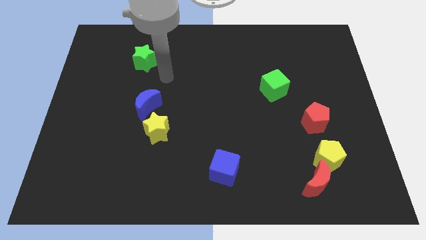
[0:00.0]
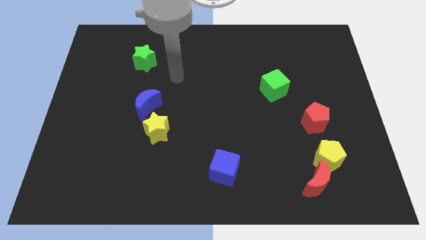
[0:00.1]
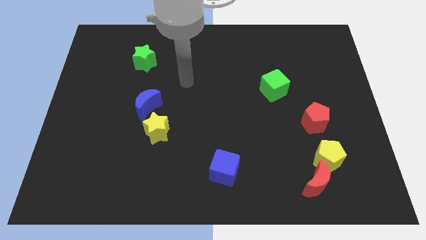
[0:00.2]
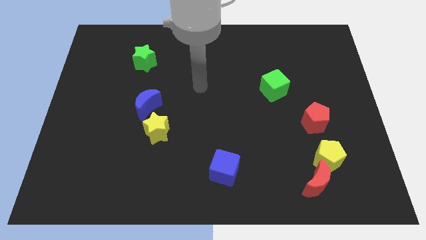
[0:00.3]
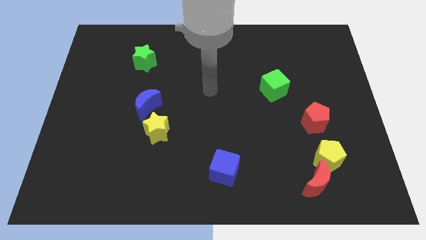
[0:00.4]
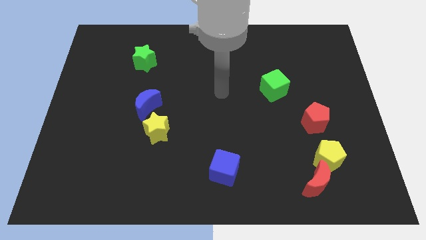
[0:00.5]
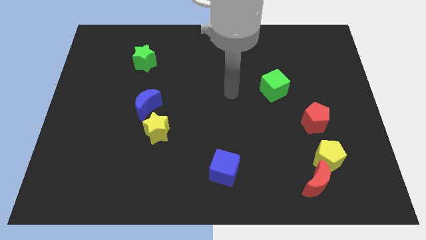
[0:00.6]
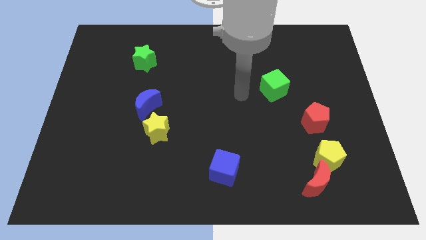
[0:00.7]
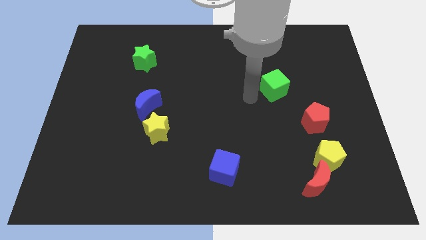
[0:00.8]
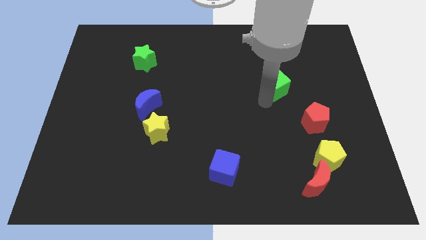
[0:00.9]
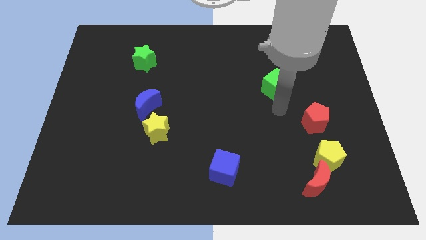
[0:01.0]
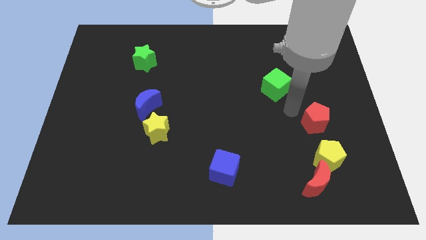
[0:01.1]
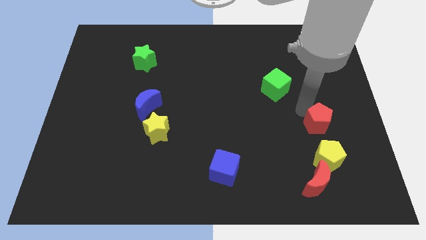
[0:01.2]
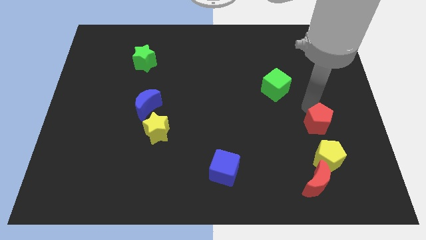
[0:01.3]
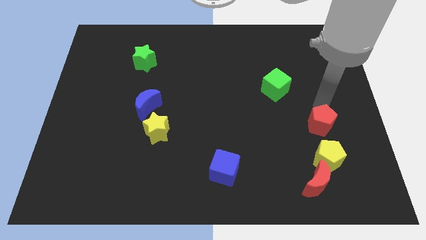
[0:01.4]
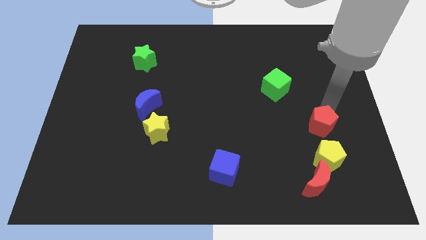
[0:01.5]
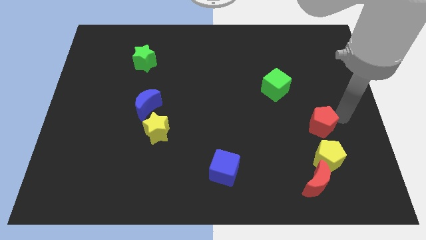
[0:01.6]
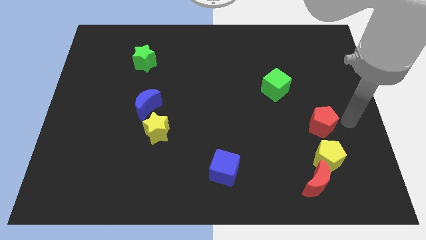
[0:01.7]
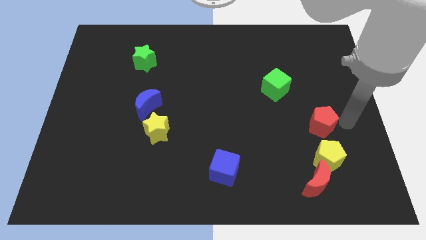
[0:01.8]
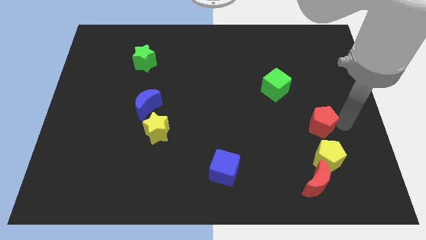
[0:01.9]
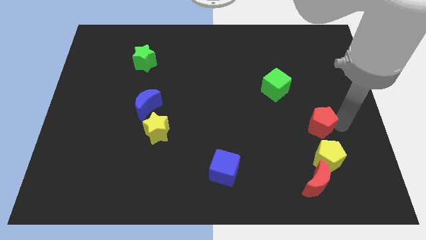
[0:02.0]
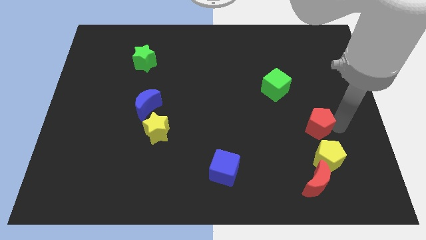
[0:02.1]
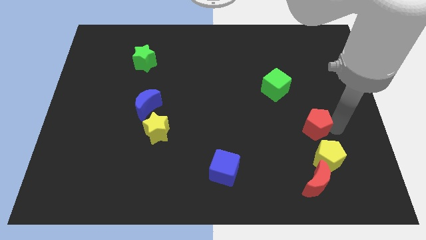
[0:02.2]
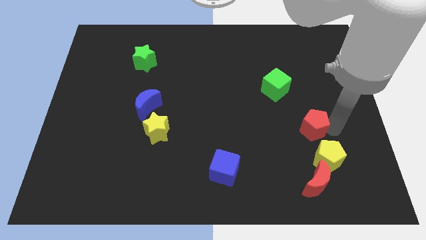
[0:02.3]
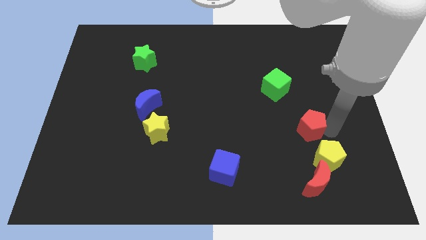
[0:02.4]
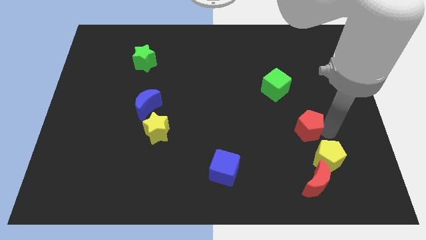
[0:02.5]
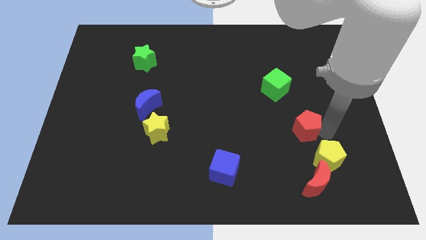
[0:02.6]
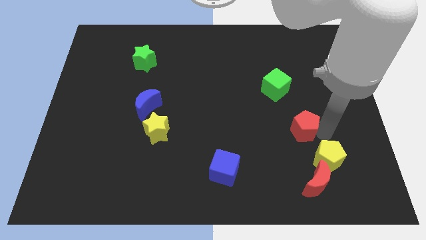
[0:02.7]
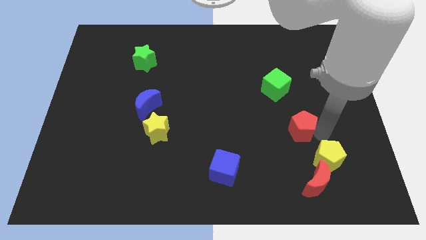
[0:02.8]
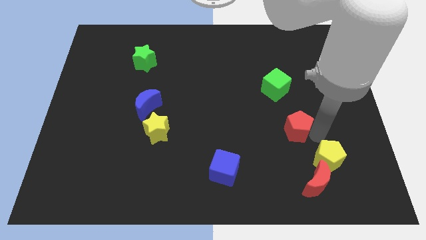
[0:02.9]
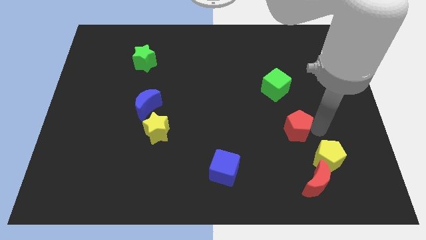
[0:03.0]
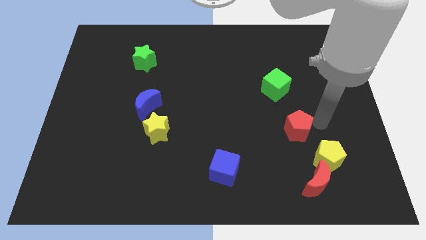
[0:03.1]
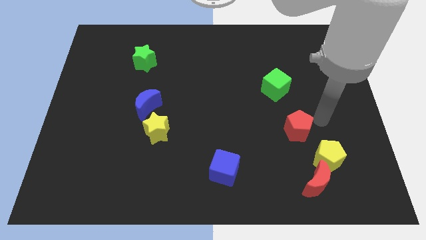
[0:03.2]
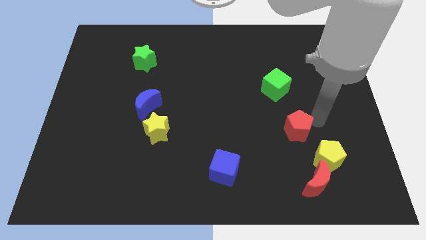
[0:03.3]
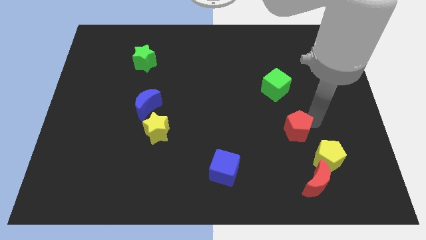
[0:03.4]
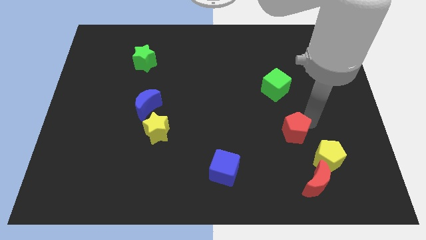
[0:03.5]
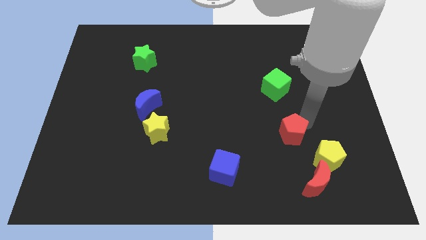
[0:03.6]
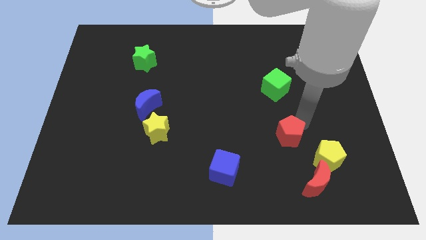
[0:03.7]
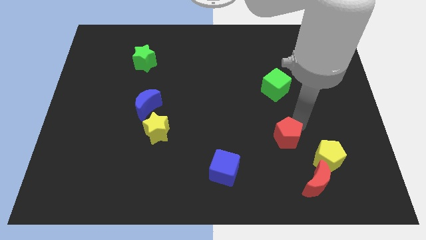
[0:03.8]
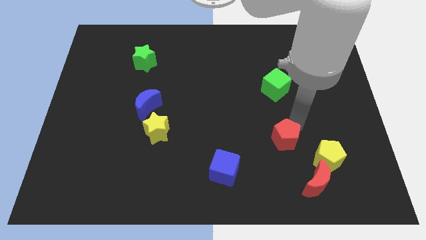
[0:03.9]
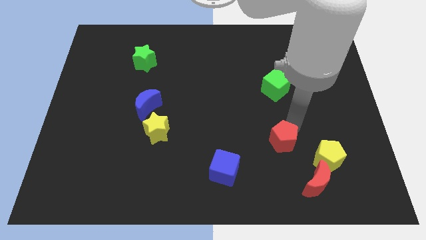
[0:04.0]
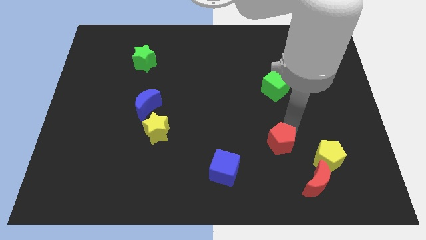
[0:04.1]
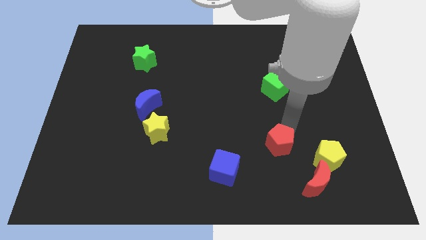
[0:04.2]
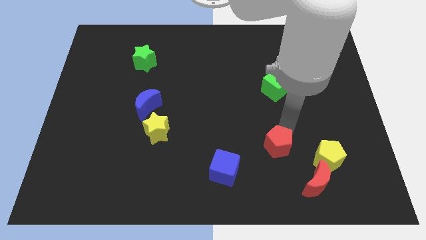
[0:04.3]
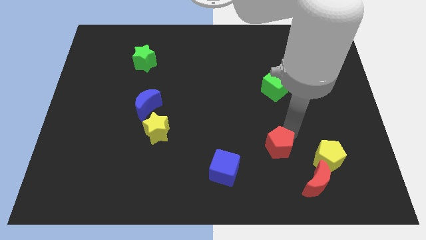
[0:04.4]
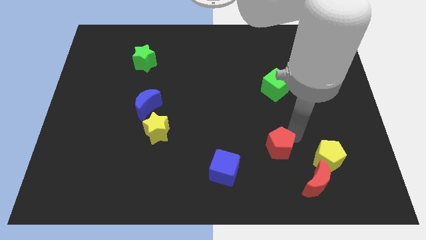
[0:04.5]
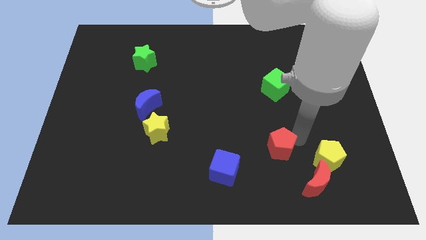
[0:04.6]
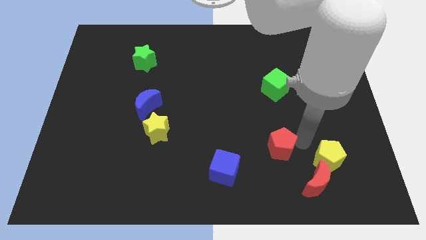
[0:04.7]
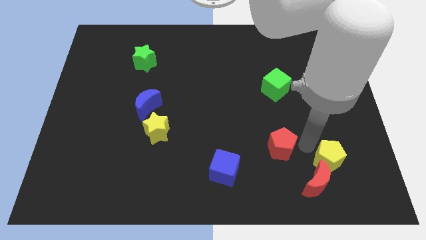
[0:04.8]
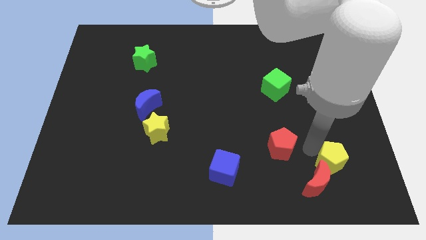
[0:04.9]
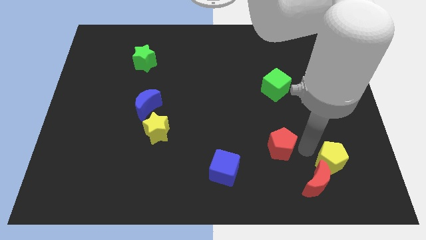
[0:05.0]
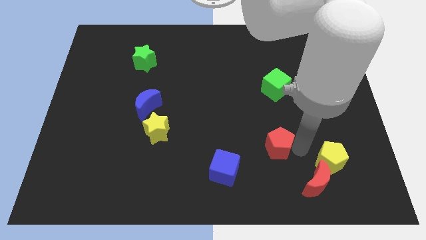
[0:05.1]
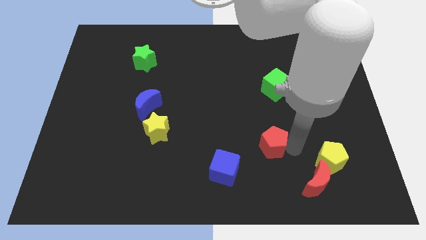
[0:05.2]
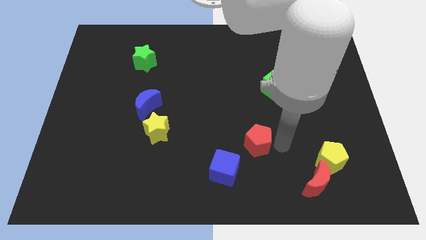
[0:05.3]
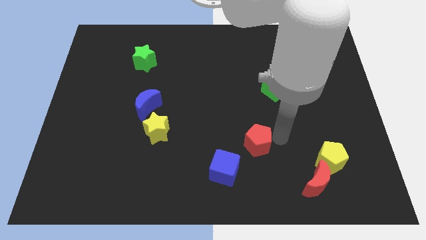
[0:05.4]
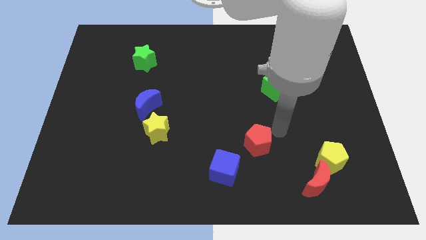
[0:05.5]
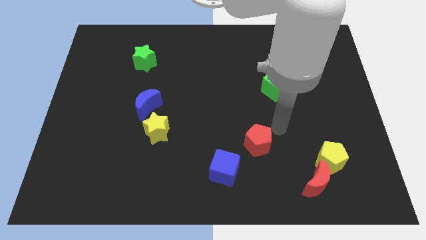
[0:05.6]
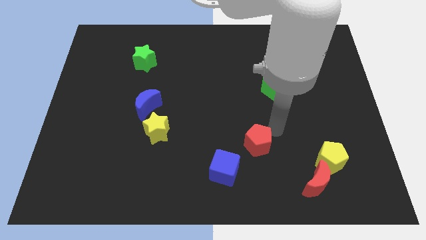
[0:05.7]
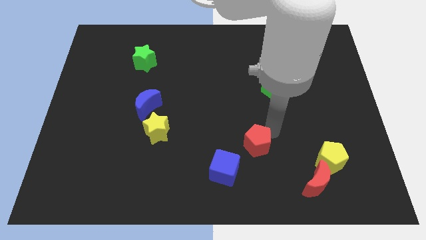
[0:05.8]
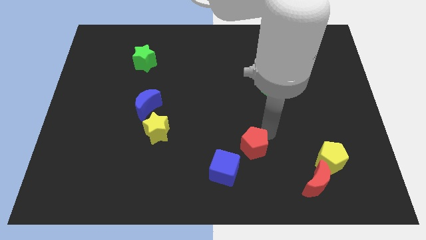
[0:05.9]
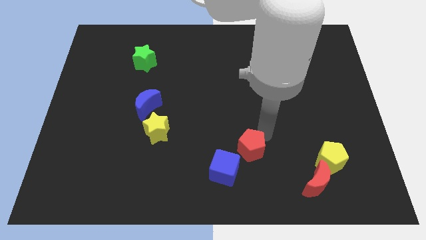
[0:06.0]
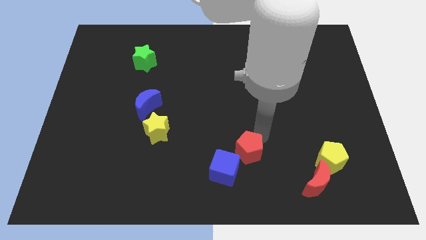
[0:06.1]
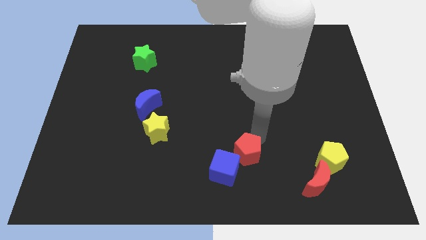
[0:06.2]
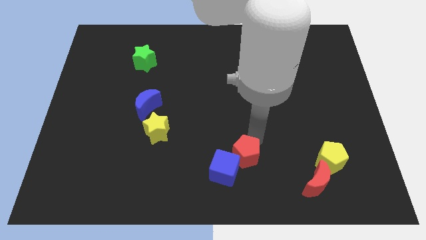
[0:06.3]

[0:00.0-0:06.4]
slide the red pentagon to the blue cube

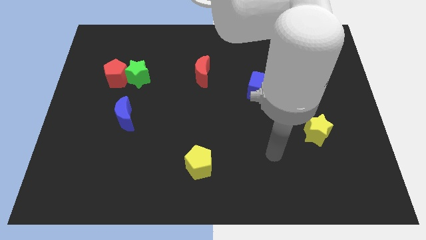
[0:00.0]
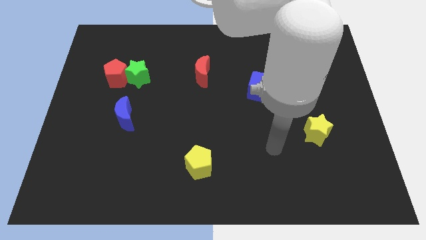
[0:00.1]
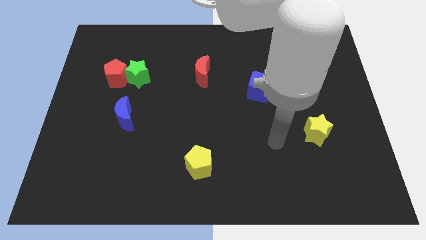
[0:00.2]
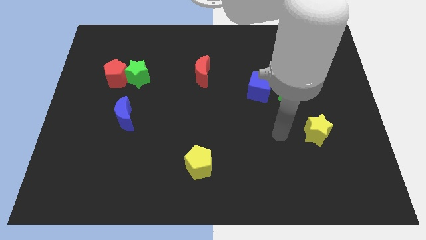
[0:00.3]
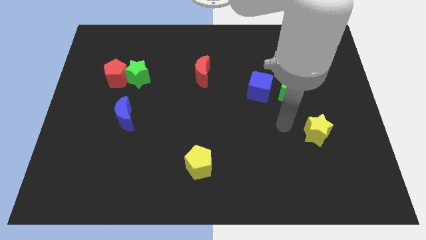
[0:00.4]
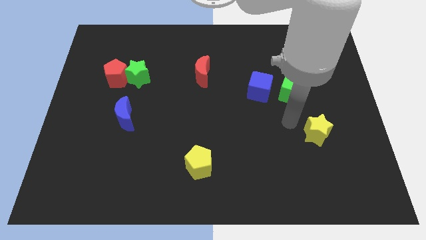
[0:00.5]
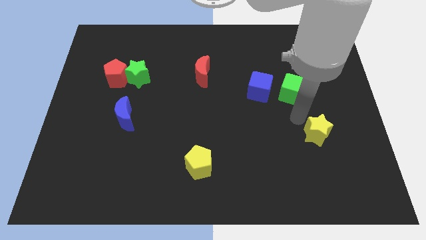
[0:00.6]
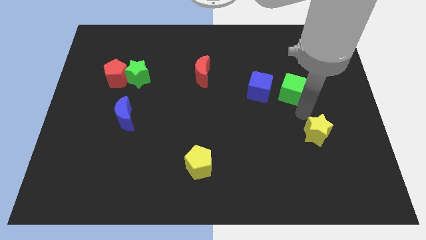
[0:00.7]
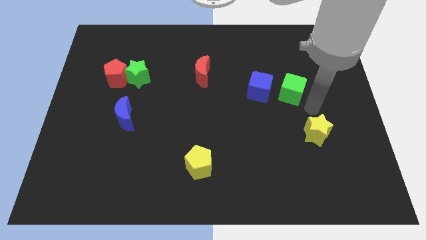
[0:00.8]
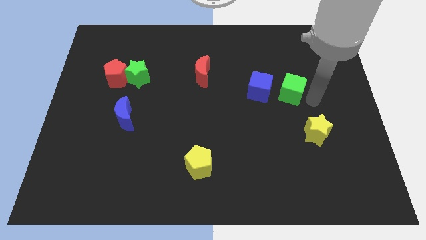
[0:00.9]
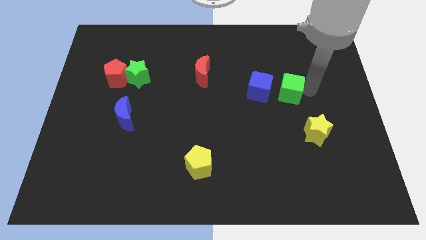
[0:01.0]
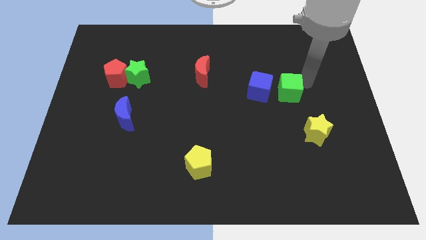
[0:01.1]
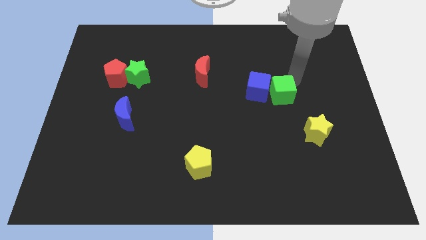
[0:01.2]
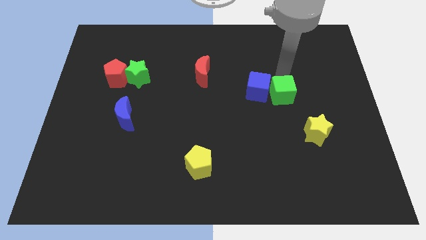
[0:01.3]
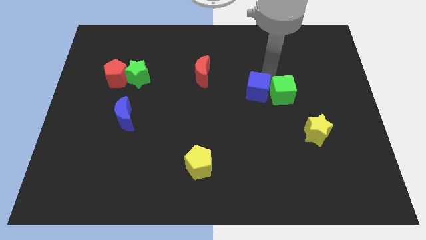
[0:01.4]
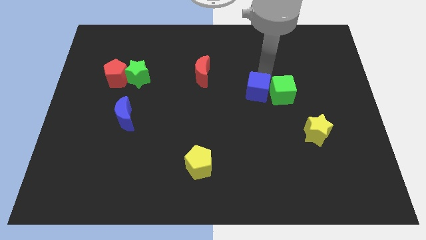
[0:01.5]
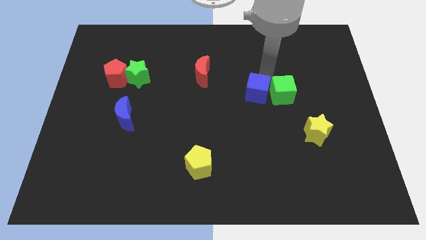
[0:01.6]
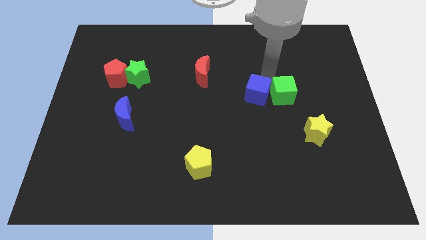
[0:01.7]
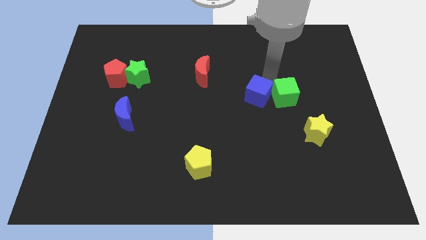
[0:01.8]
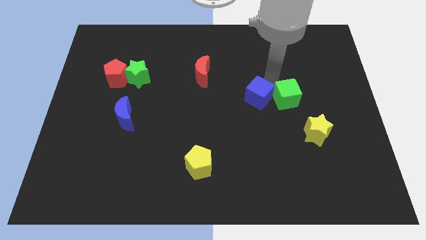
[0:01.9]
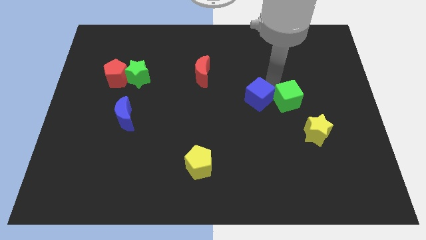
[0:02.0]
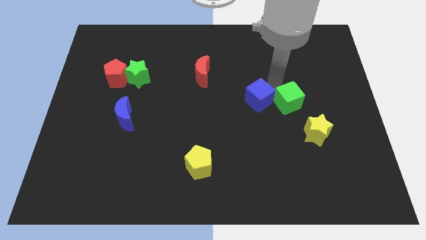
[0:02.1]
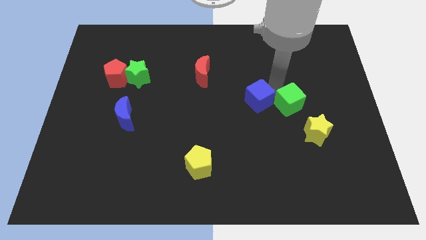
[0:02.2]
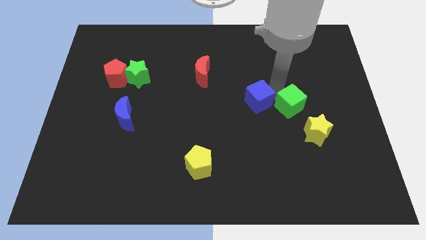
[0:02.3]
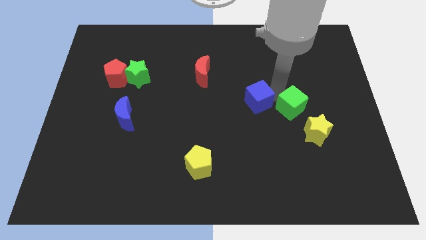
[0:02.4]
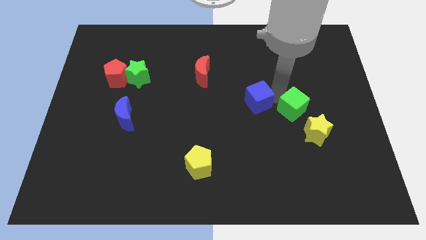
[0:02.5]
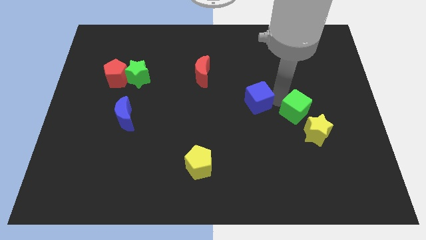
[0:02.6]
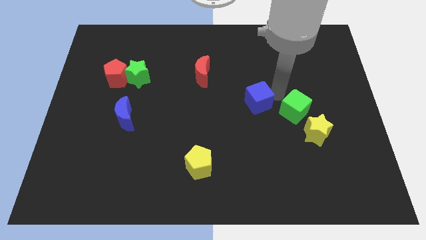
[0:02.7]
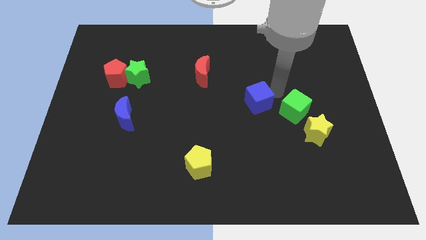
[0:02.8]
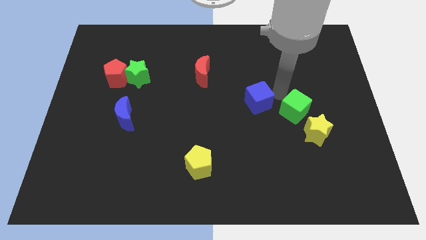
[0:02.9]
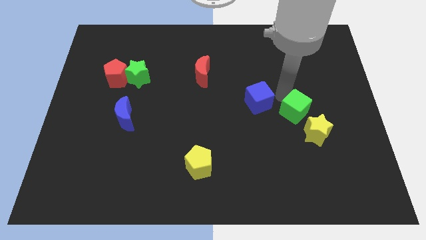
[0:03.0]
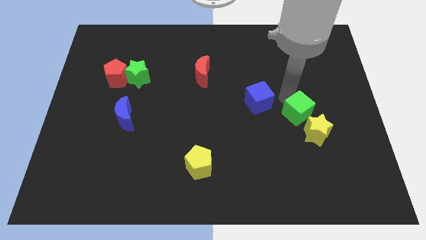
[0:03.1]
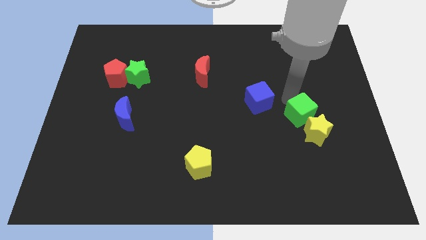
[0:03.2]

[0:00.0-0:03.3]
push the green cube next to the yellow star
